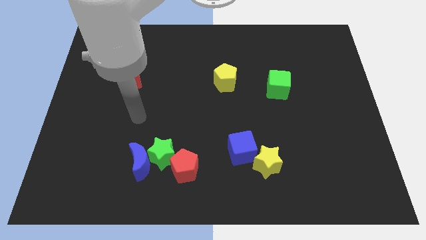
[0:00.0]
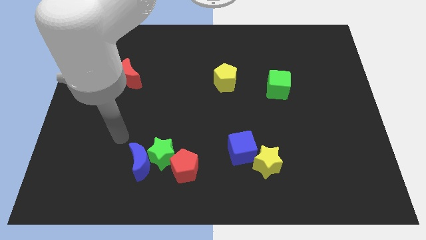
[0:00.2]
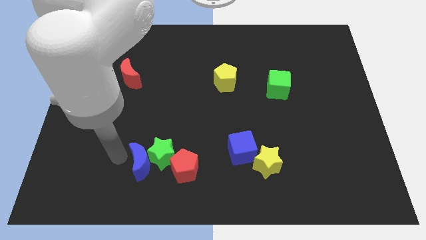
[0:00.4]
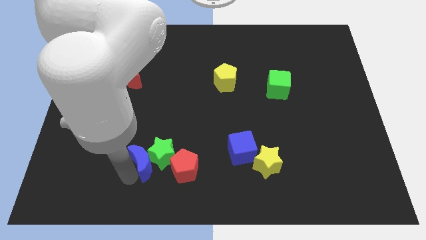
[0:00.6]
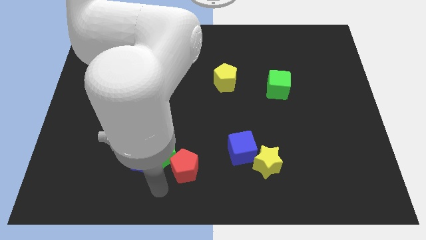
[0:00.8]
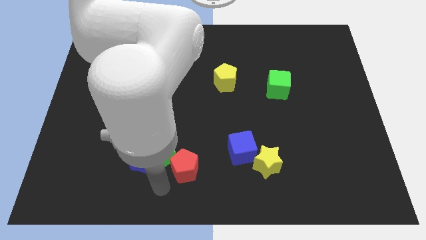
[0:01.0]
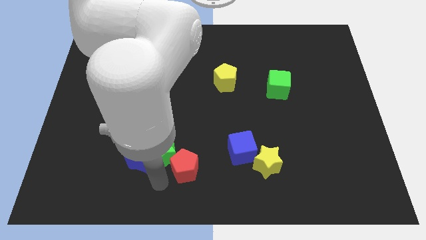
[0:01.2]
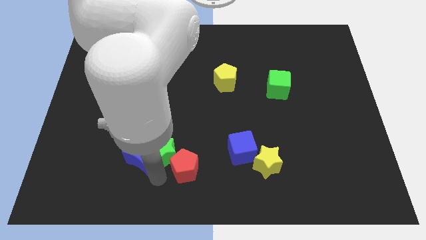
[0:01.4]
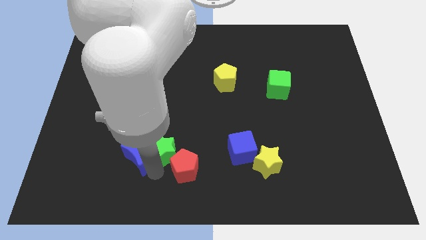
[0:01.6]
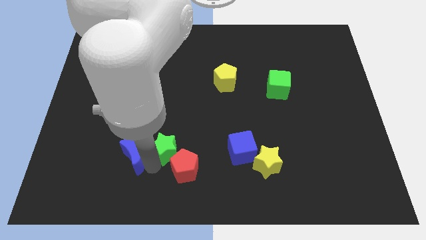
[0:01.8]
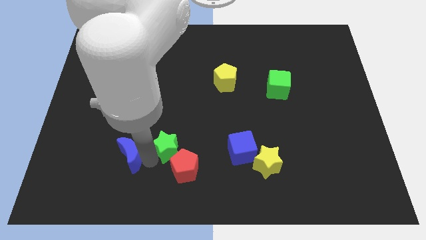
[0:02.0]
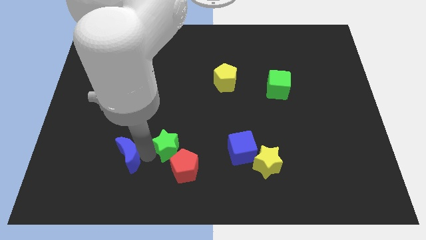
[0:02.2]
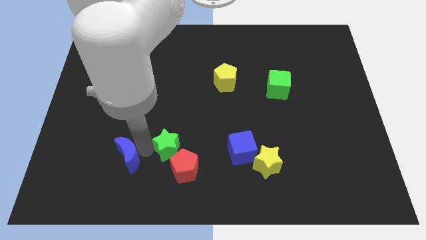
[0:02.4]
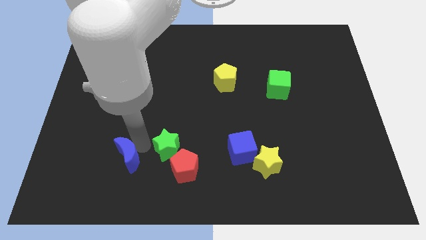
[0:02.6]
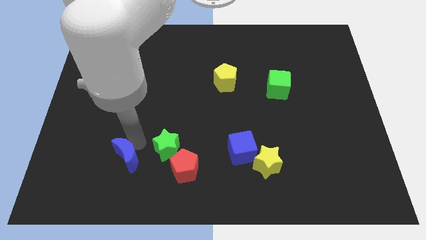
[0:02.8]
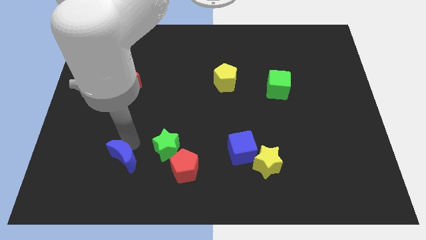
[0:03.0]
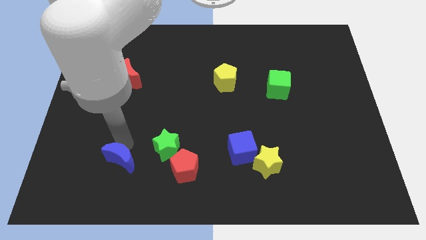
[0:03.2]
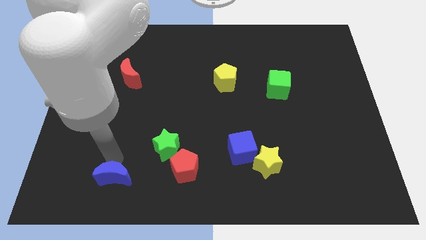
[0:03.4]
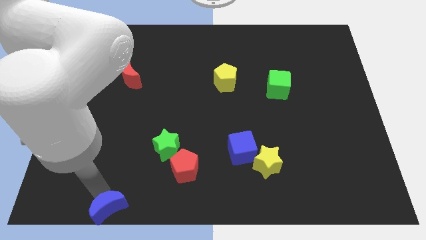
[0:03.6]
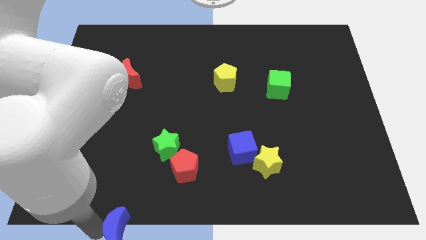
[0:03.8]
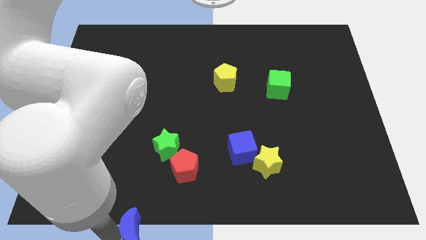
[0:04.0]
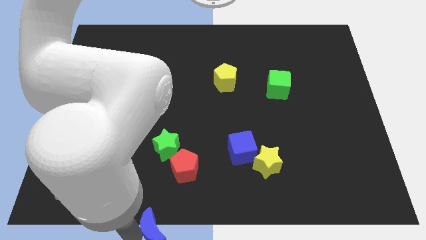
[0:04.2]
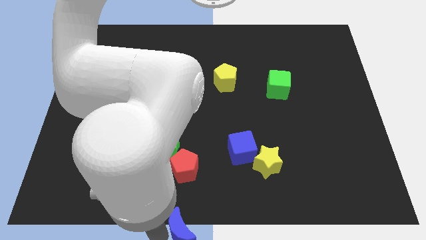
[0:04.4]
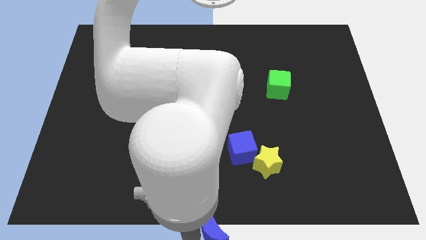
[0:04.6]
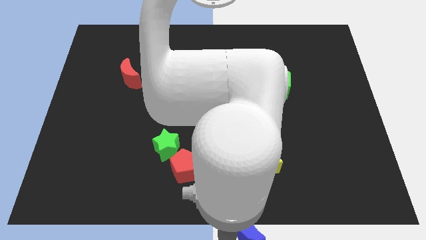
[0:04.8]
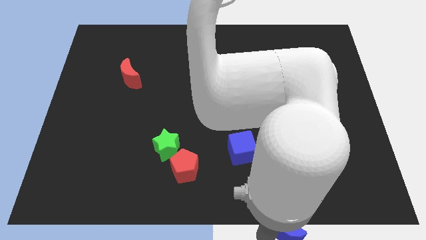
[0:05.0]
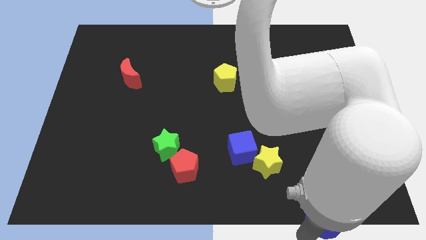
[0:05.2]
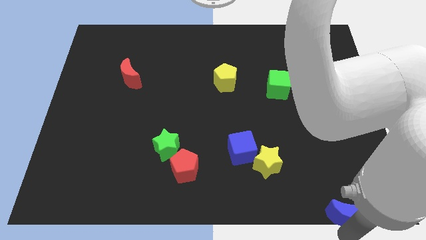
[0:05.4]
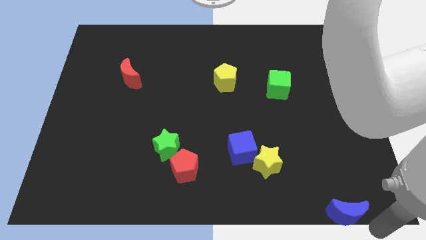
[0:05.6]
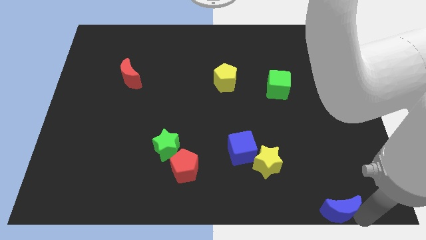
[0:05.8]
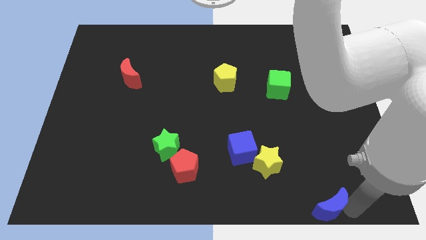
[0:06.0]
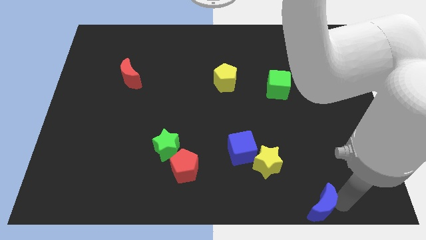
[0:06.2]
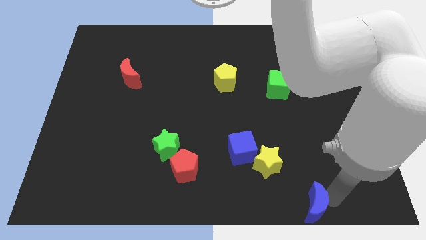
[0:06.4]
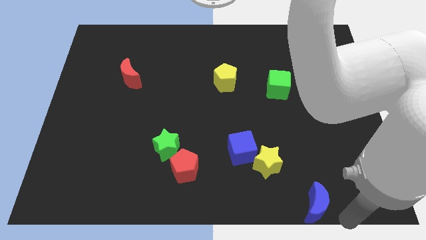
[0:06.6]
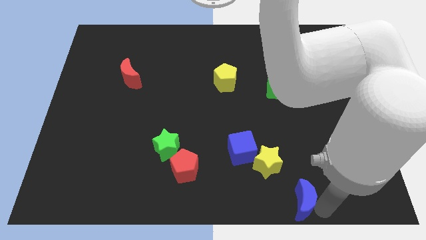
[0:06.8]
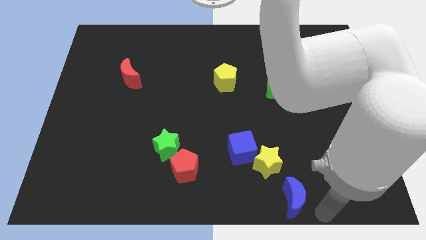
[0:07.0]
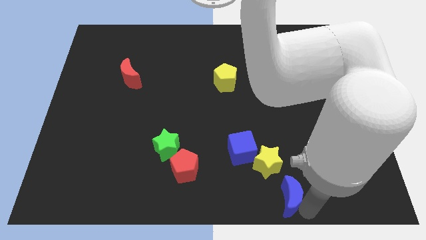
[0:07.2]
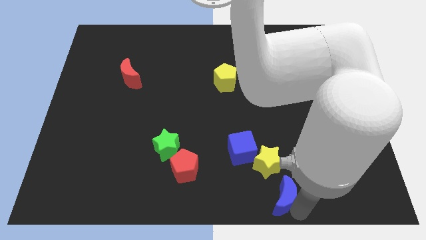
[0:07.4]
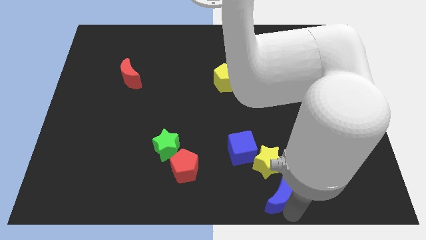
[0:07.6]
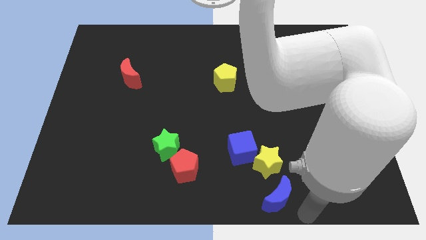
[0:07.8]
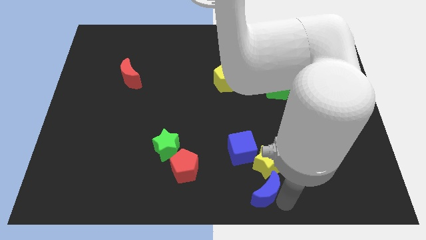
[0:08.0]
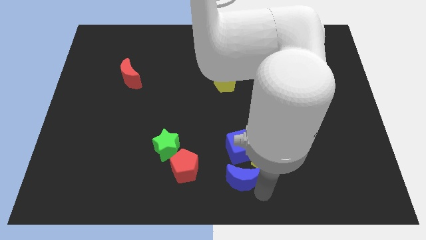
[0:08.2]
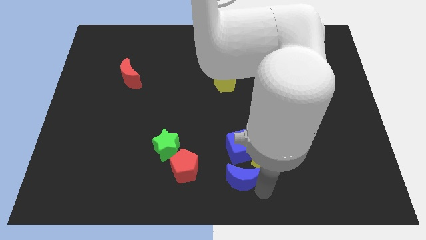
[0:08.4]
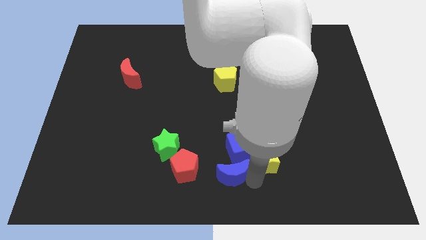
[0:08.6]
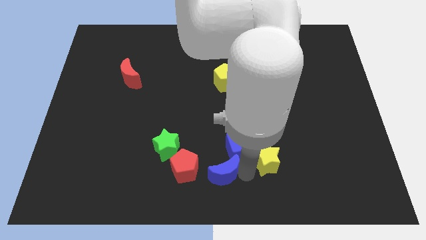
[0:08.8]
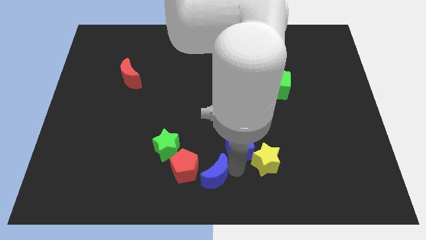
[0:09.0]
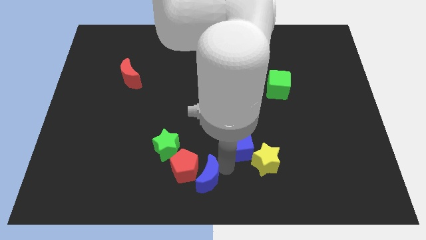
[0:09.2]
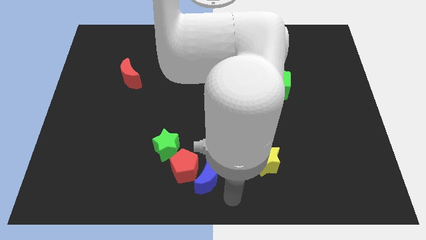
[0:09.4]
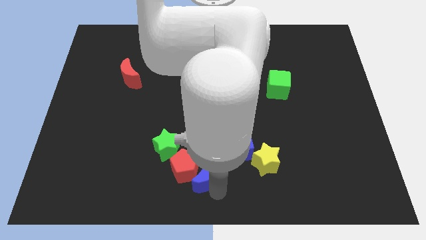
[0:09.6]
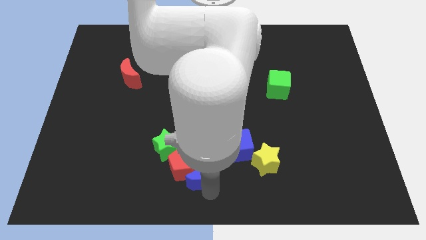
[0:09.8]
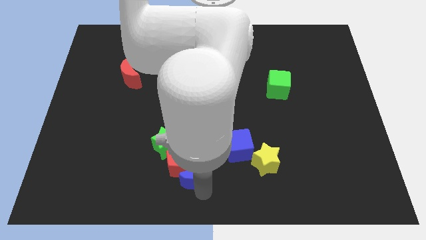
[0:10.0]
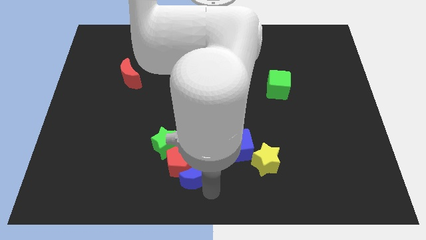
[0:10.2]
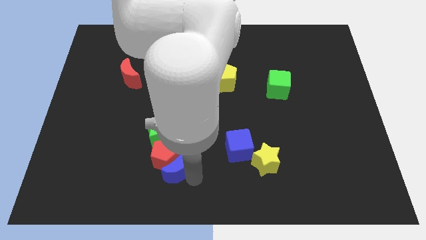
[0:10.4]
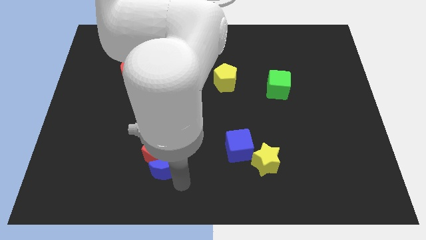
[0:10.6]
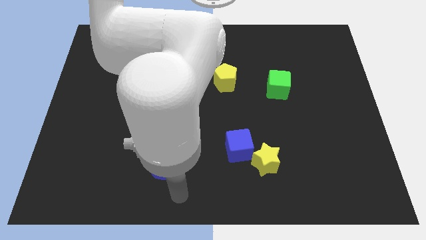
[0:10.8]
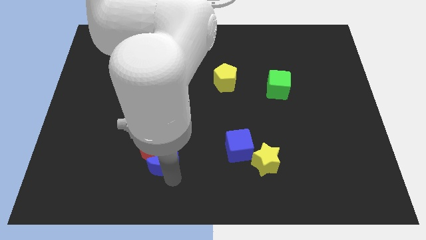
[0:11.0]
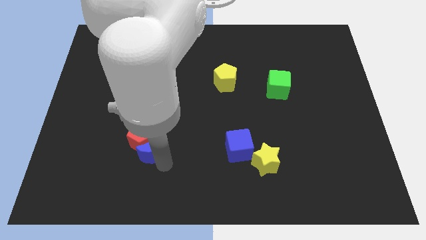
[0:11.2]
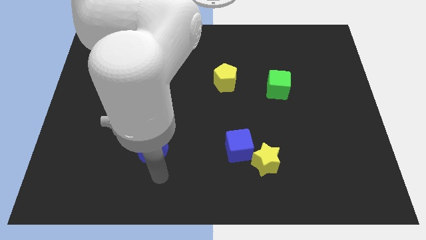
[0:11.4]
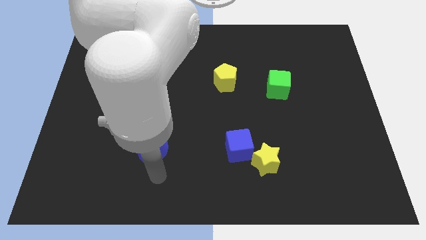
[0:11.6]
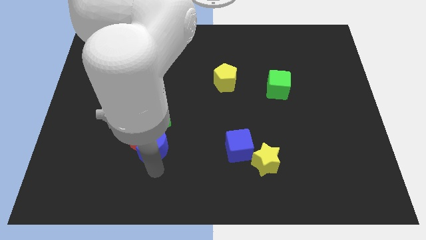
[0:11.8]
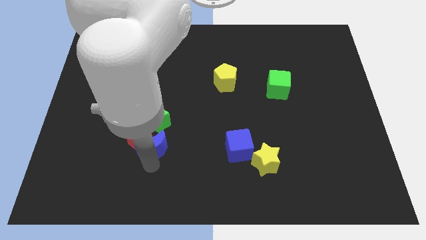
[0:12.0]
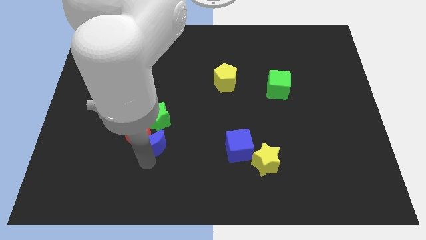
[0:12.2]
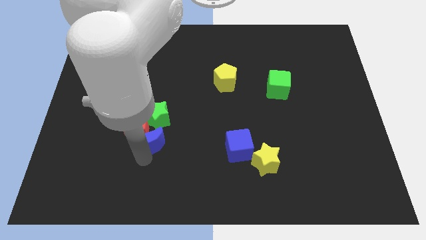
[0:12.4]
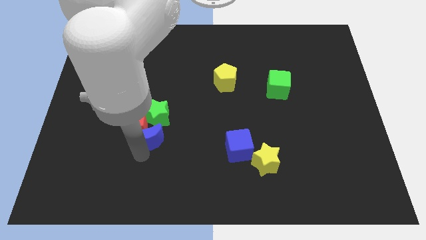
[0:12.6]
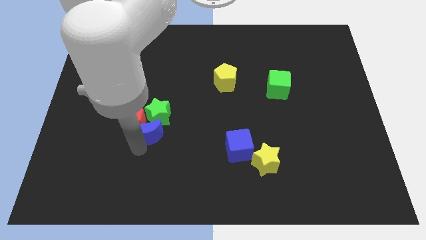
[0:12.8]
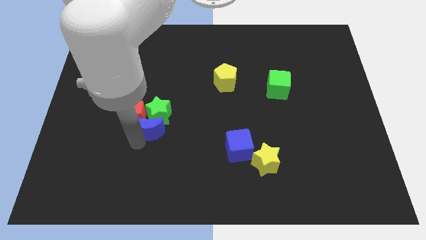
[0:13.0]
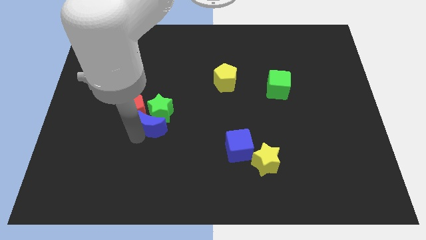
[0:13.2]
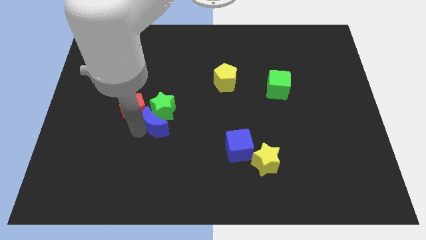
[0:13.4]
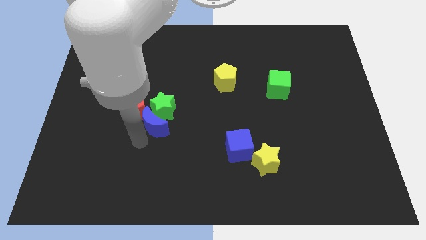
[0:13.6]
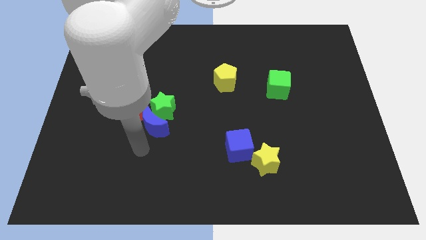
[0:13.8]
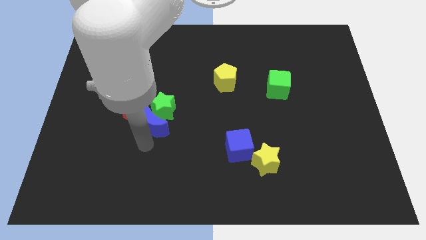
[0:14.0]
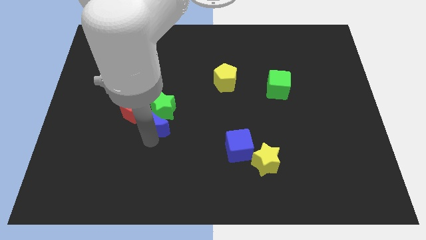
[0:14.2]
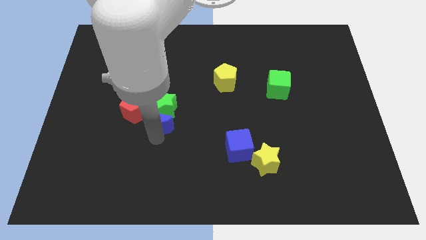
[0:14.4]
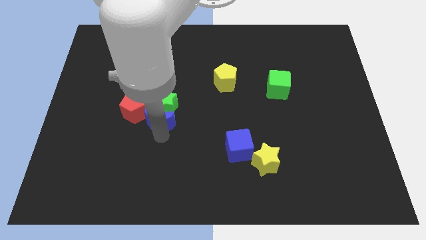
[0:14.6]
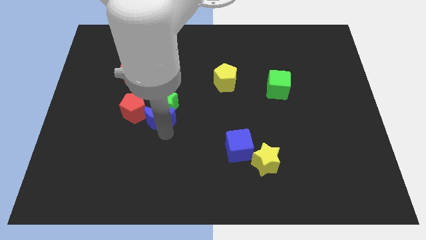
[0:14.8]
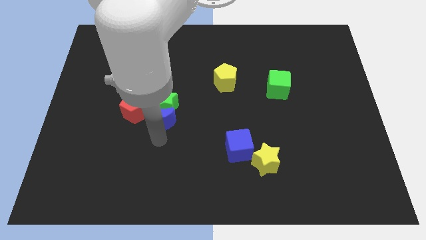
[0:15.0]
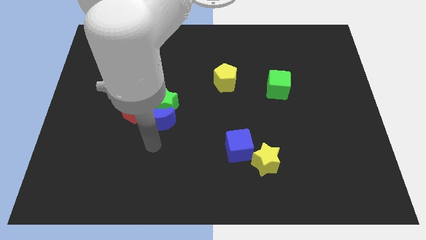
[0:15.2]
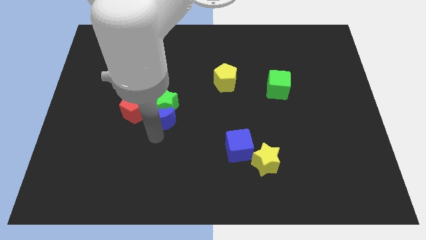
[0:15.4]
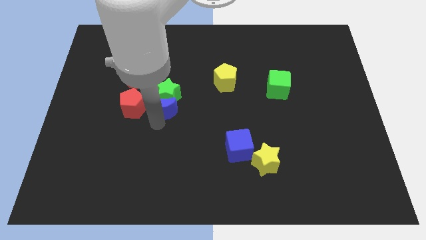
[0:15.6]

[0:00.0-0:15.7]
slide the blue moon to the middle
